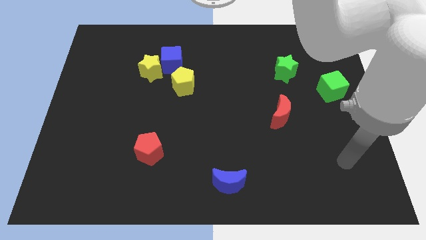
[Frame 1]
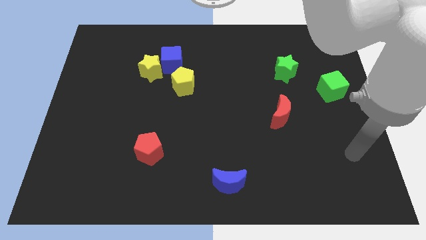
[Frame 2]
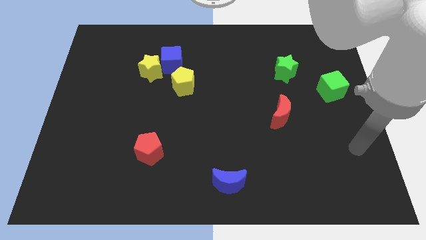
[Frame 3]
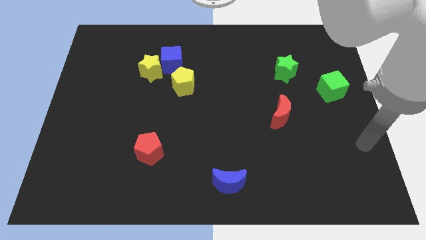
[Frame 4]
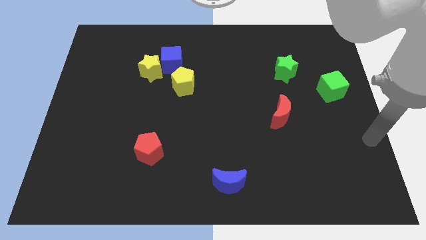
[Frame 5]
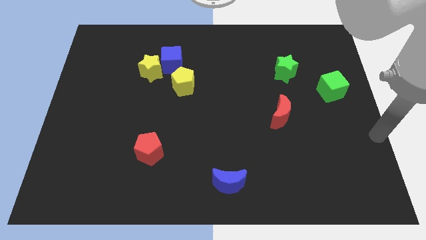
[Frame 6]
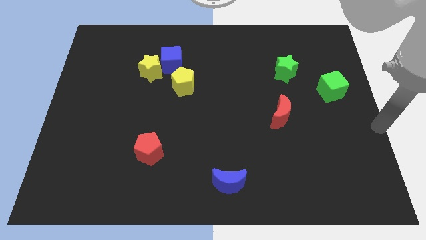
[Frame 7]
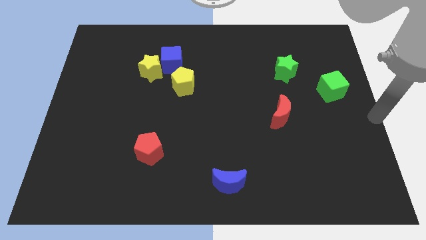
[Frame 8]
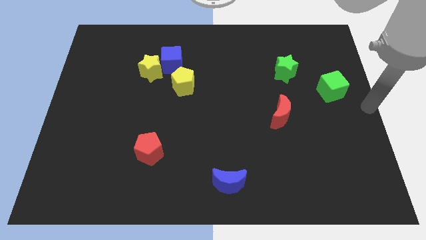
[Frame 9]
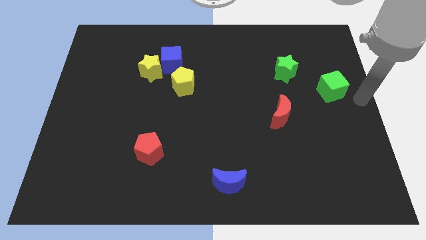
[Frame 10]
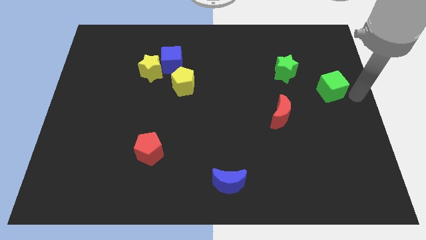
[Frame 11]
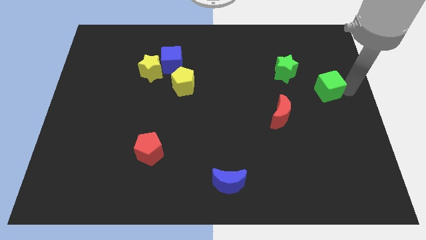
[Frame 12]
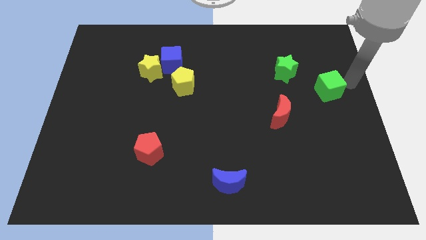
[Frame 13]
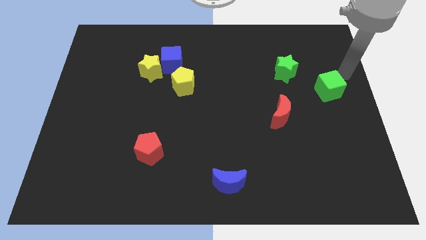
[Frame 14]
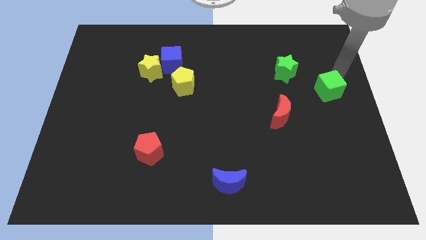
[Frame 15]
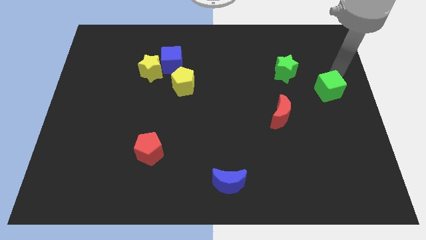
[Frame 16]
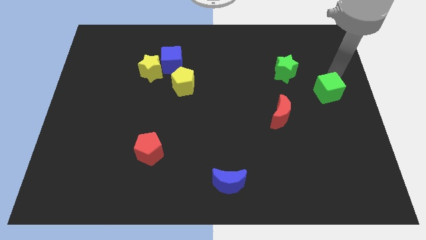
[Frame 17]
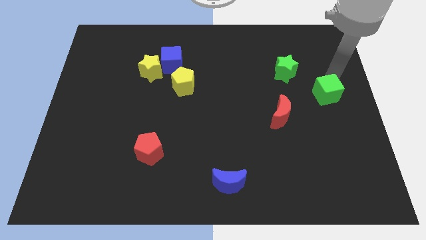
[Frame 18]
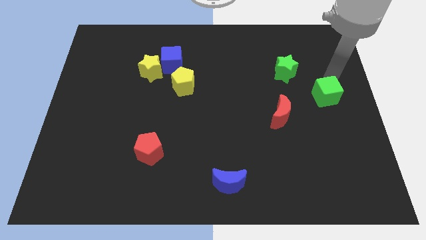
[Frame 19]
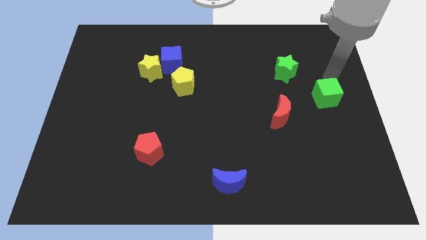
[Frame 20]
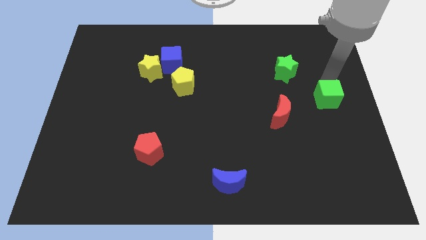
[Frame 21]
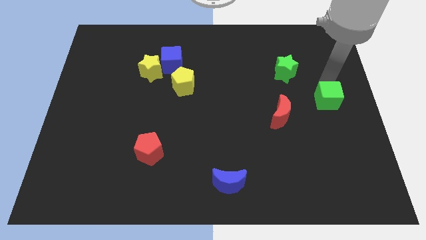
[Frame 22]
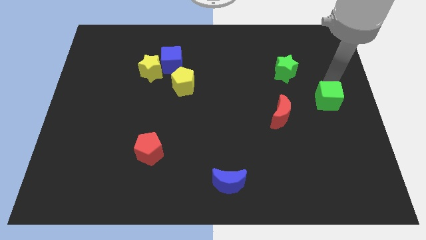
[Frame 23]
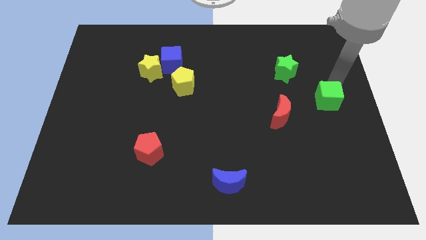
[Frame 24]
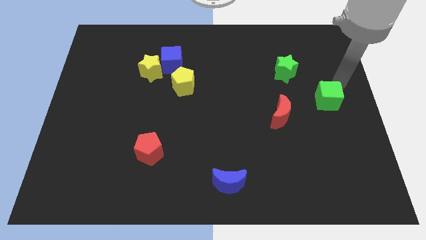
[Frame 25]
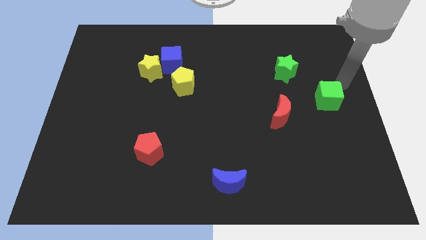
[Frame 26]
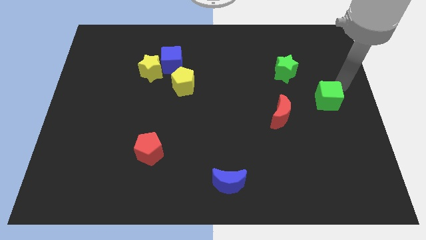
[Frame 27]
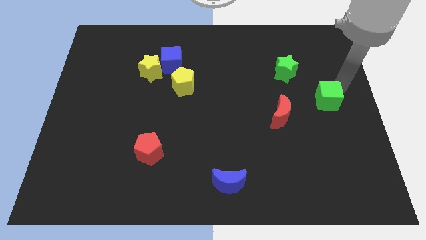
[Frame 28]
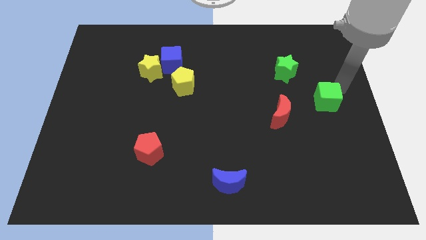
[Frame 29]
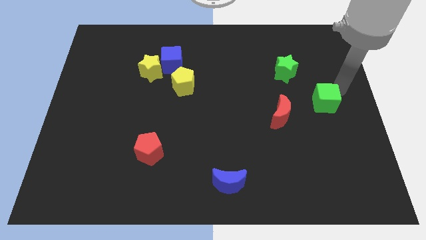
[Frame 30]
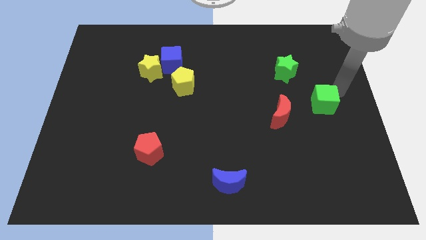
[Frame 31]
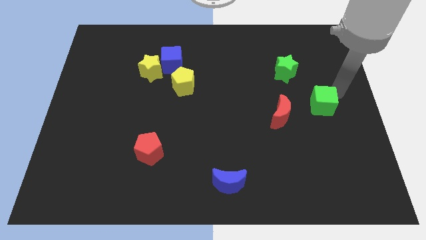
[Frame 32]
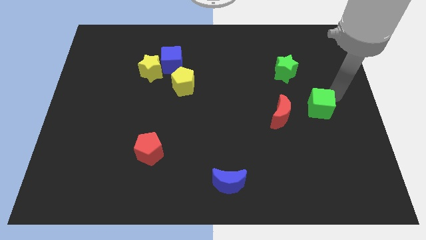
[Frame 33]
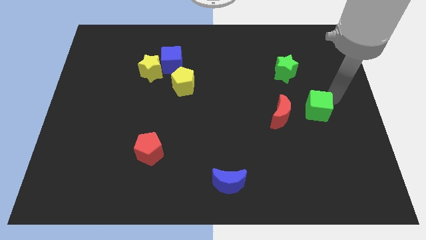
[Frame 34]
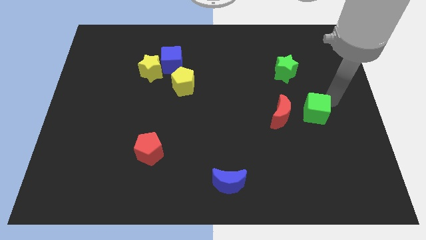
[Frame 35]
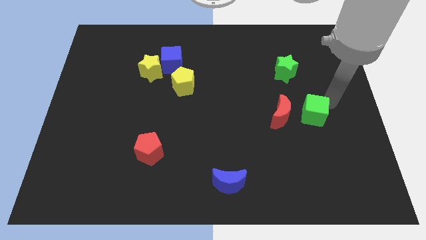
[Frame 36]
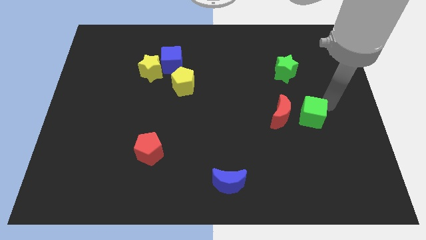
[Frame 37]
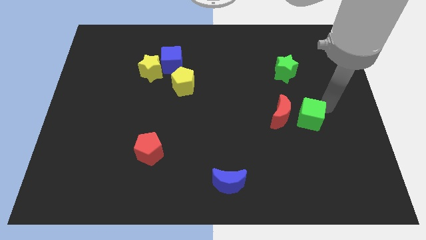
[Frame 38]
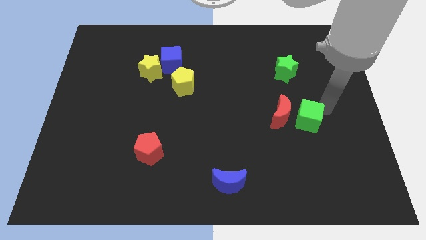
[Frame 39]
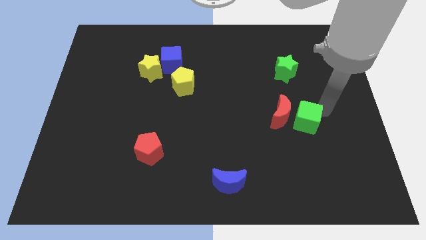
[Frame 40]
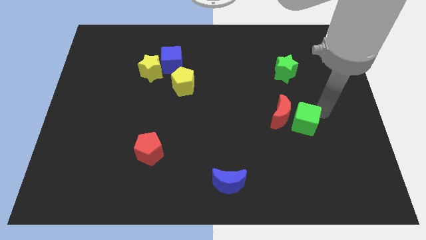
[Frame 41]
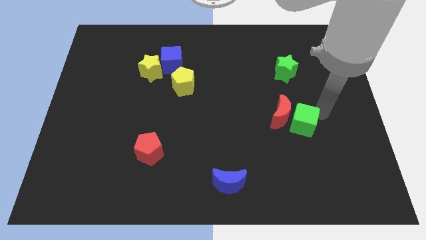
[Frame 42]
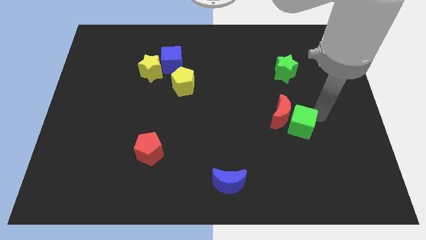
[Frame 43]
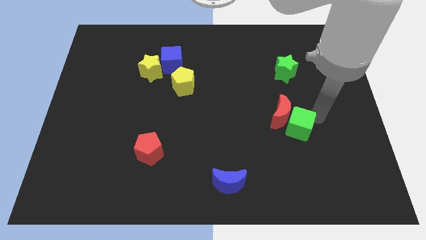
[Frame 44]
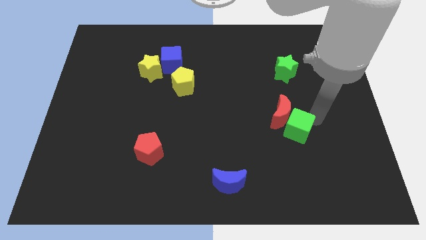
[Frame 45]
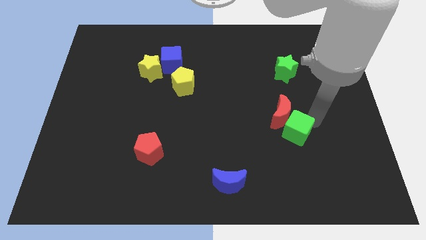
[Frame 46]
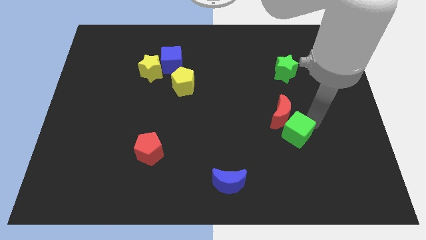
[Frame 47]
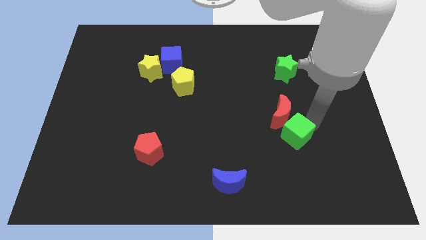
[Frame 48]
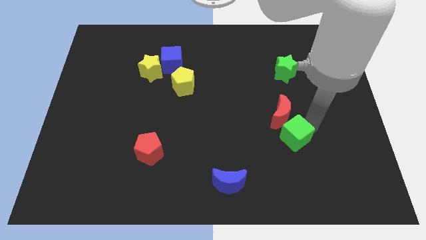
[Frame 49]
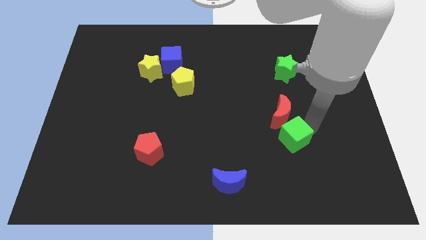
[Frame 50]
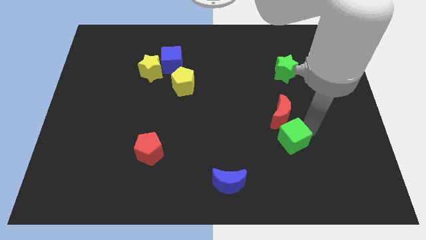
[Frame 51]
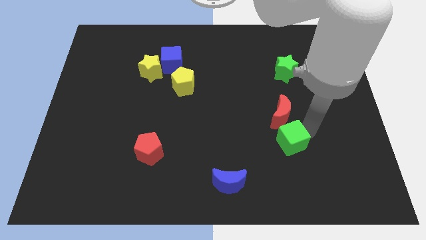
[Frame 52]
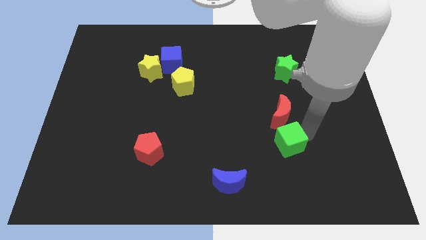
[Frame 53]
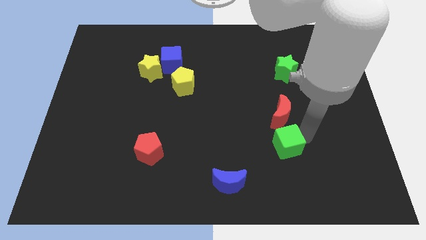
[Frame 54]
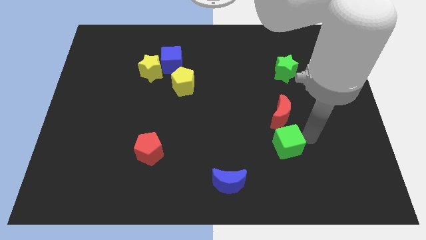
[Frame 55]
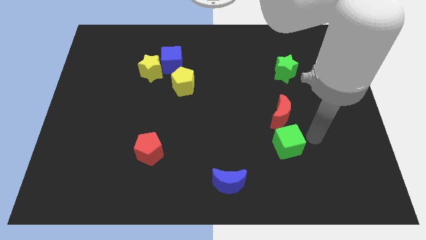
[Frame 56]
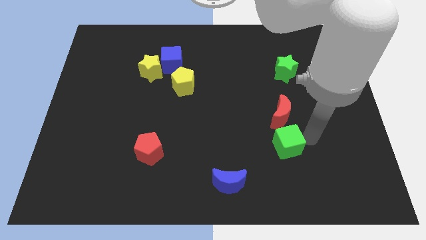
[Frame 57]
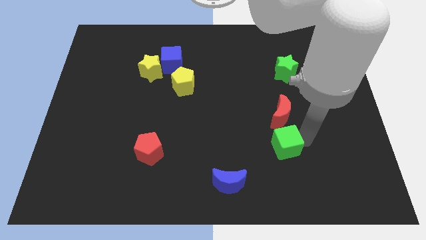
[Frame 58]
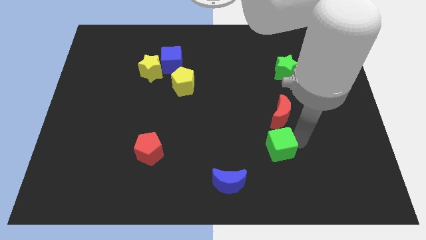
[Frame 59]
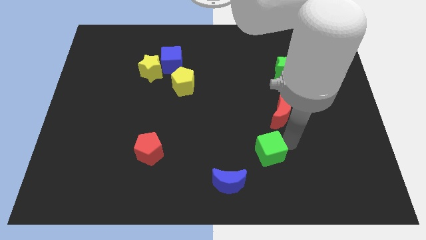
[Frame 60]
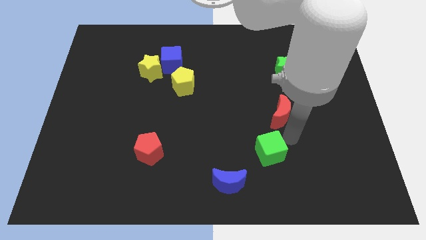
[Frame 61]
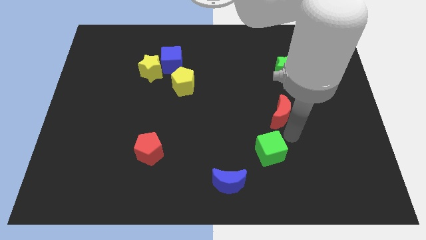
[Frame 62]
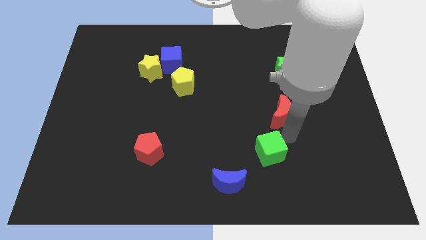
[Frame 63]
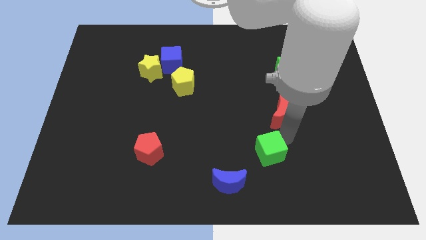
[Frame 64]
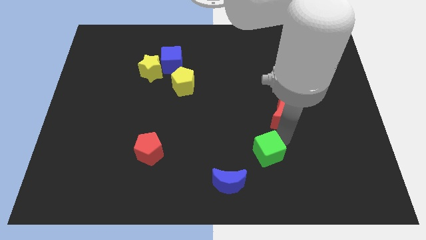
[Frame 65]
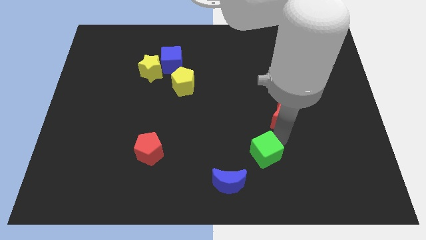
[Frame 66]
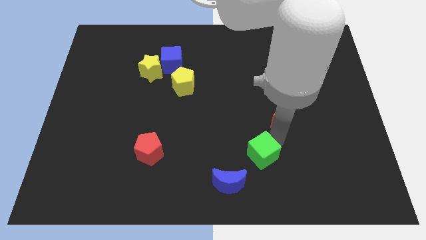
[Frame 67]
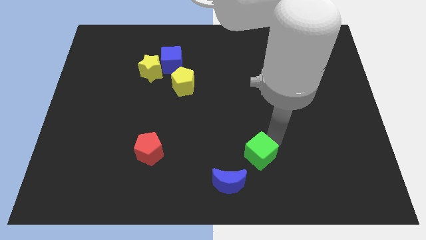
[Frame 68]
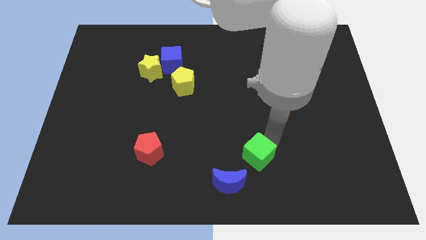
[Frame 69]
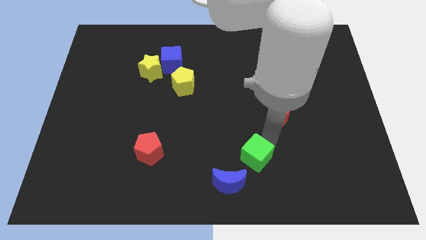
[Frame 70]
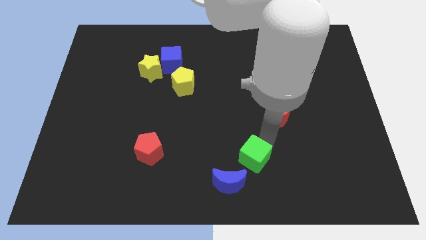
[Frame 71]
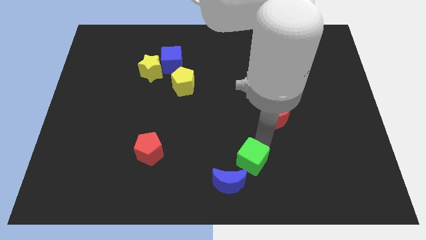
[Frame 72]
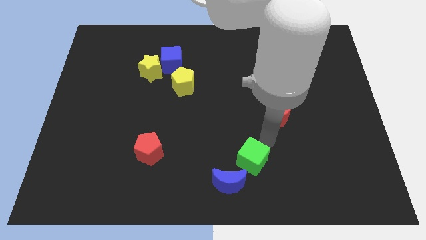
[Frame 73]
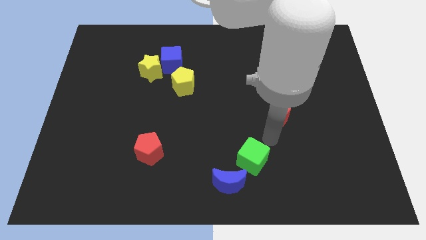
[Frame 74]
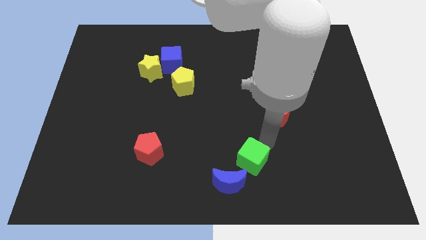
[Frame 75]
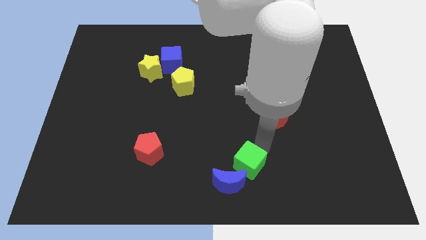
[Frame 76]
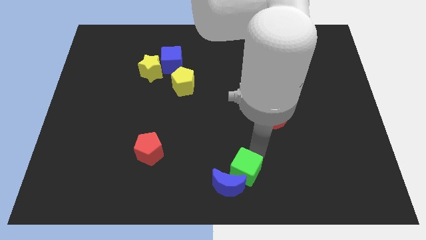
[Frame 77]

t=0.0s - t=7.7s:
push the green cube to the blue moon
